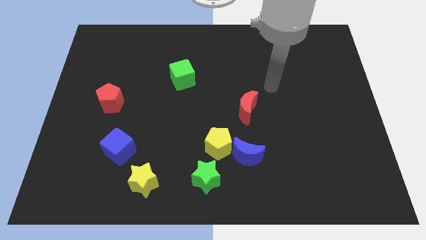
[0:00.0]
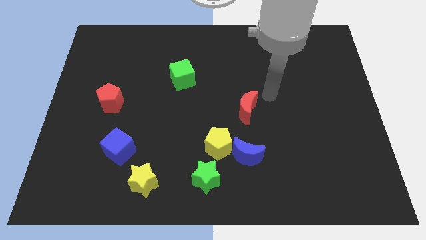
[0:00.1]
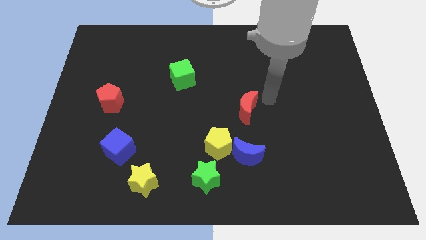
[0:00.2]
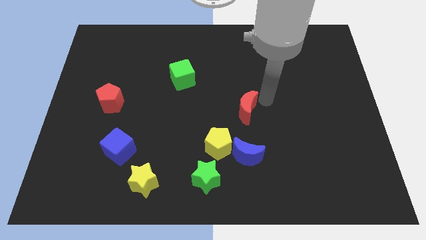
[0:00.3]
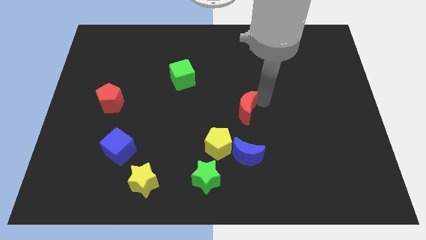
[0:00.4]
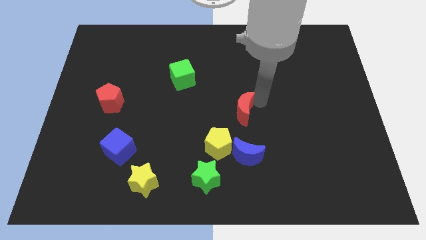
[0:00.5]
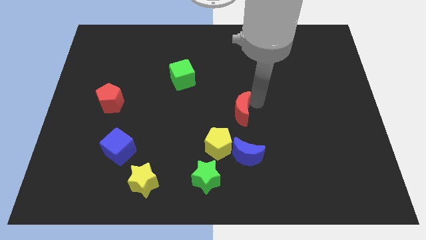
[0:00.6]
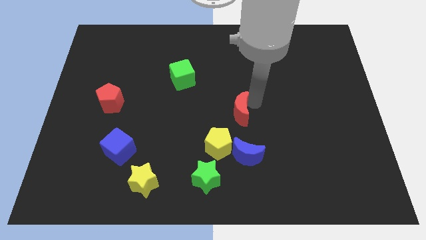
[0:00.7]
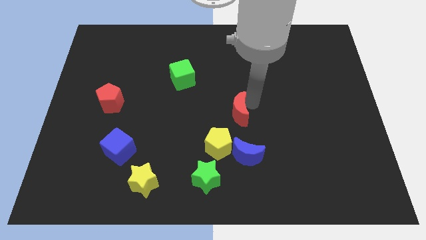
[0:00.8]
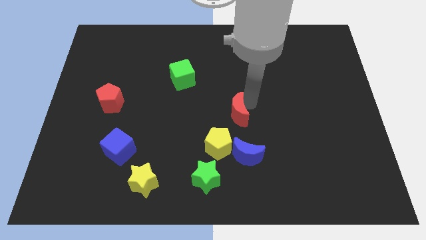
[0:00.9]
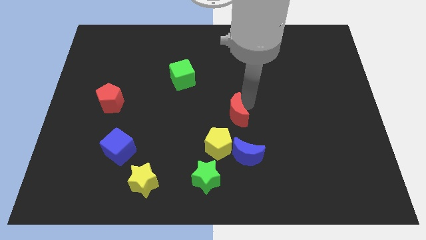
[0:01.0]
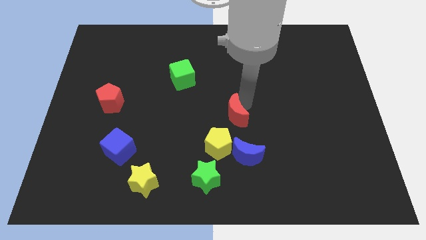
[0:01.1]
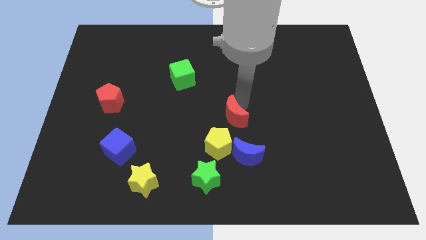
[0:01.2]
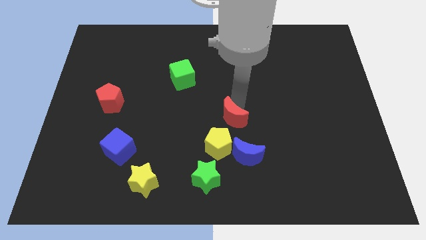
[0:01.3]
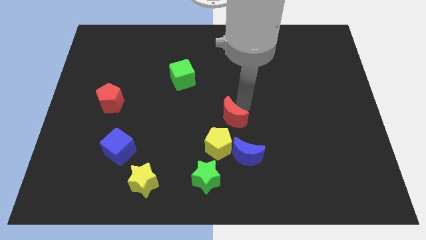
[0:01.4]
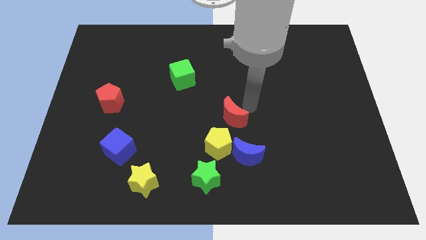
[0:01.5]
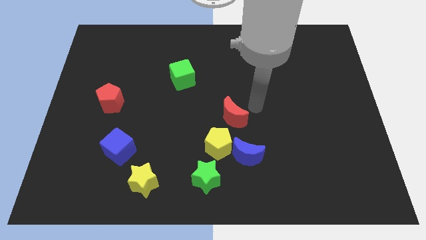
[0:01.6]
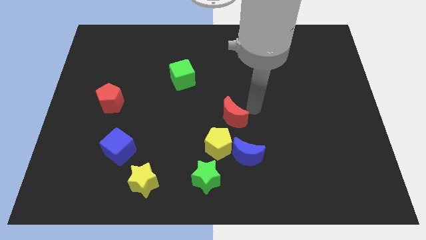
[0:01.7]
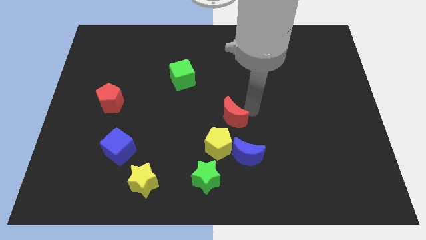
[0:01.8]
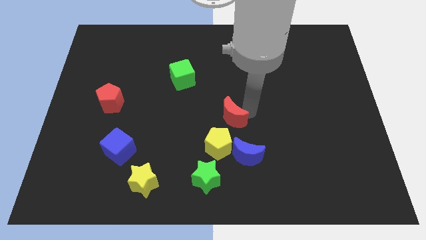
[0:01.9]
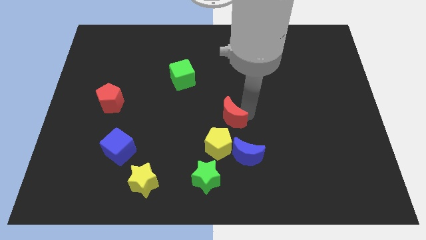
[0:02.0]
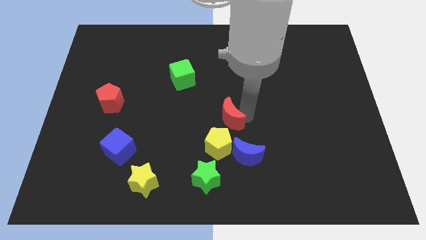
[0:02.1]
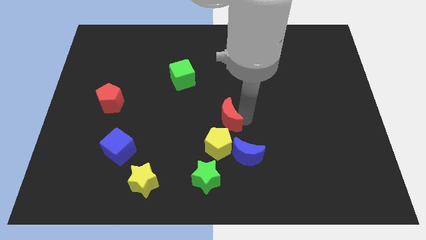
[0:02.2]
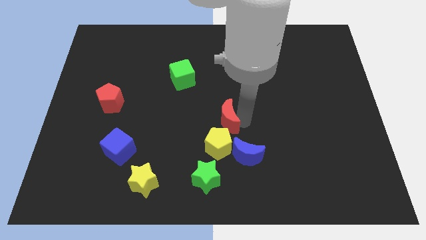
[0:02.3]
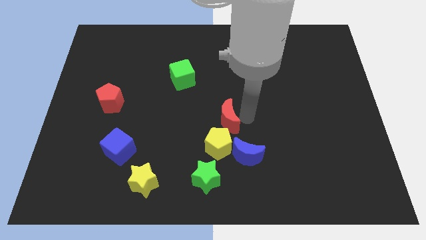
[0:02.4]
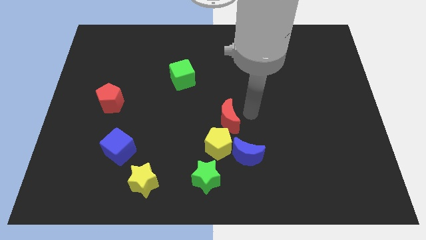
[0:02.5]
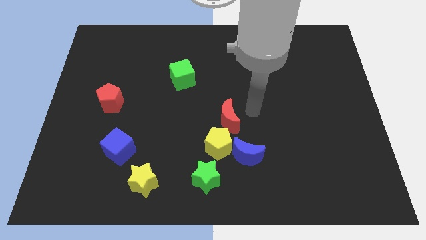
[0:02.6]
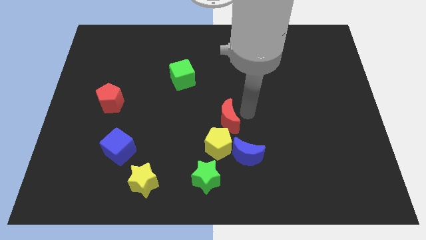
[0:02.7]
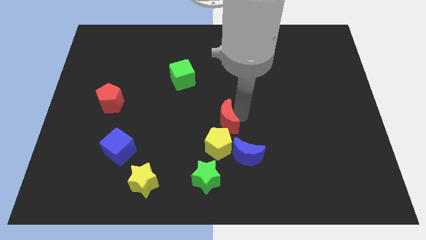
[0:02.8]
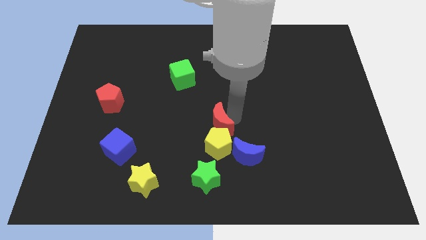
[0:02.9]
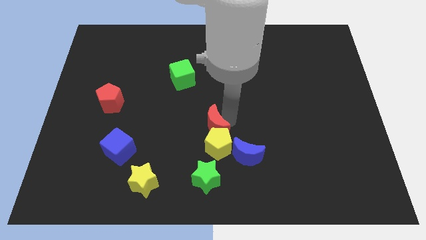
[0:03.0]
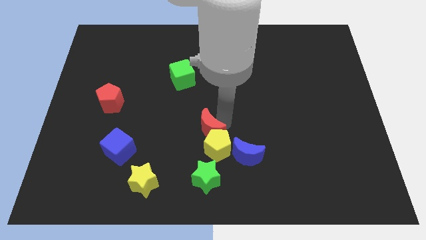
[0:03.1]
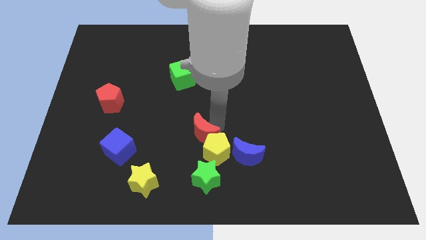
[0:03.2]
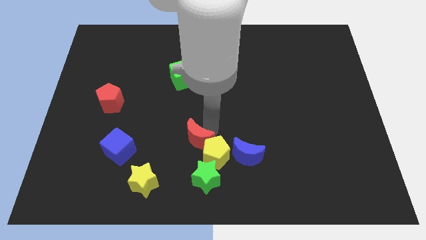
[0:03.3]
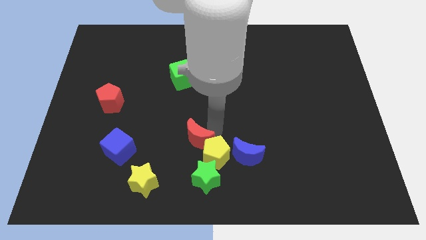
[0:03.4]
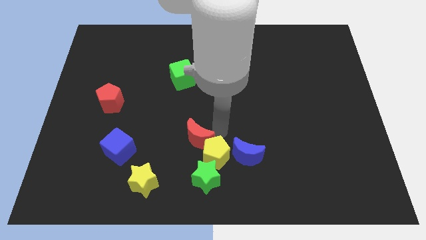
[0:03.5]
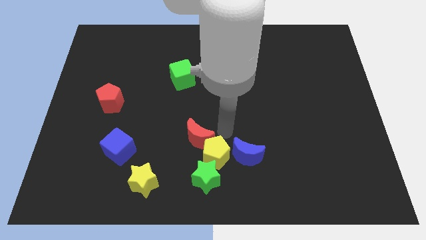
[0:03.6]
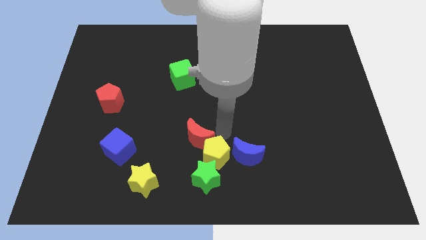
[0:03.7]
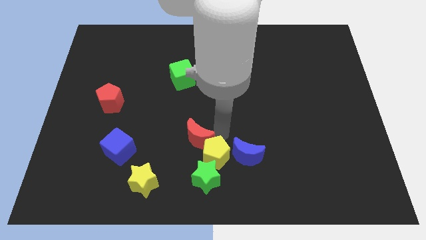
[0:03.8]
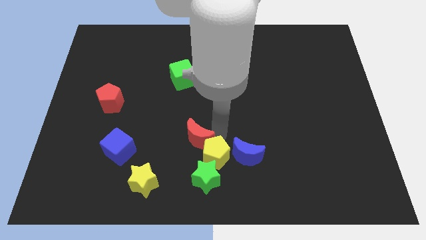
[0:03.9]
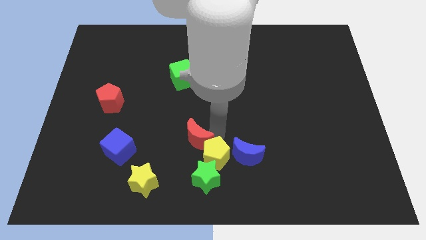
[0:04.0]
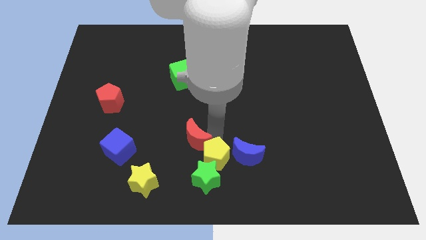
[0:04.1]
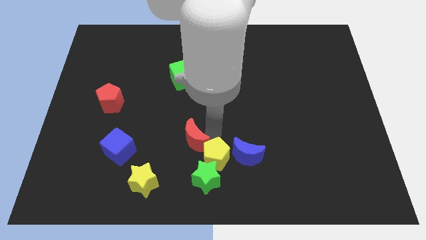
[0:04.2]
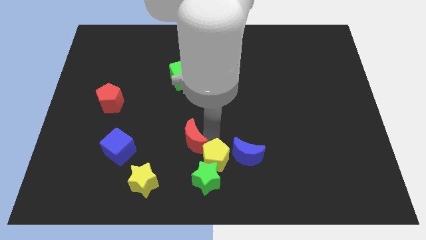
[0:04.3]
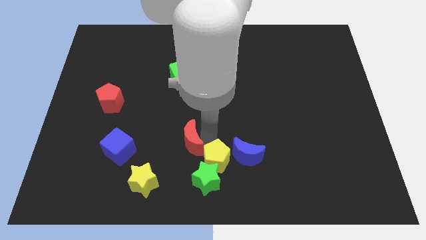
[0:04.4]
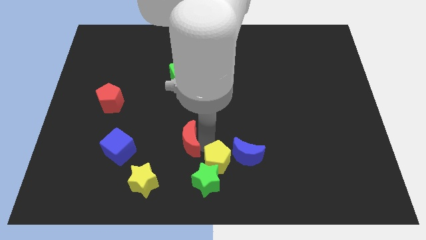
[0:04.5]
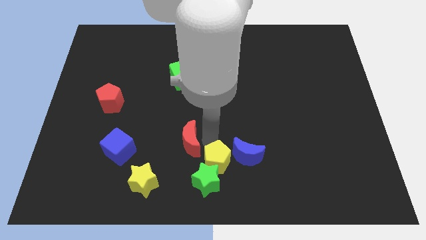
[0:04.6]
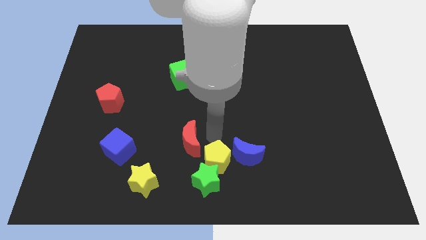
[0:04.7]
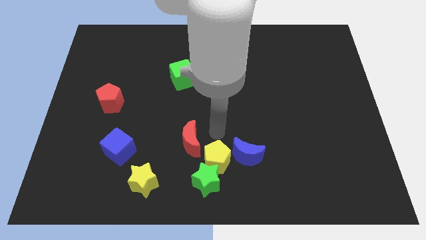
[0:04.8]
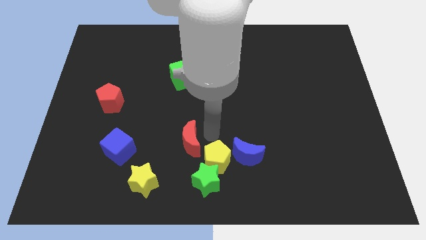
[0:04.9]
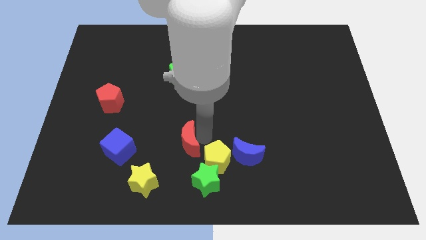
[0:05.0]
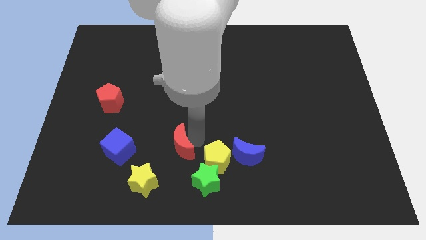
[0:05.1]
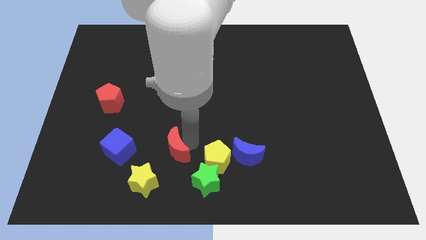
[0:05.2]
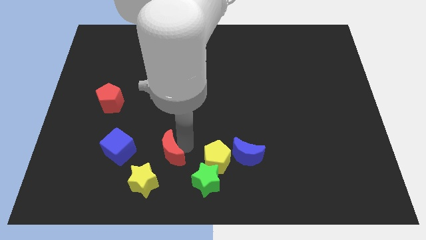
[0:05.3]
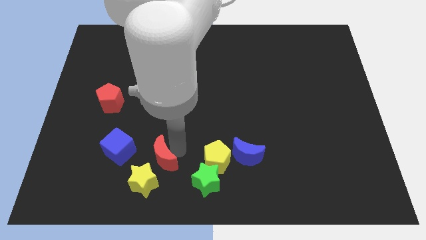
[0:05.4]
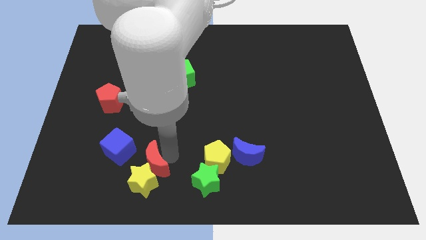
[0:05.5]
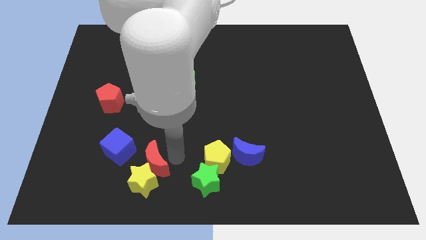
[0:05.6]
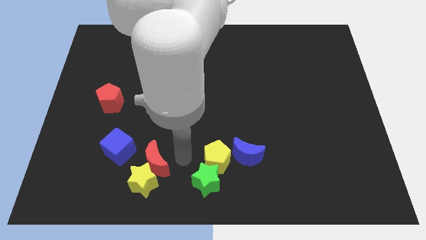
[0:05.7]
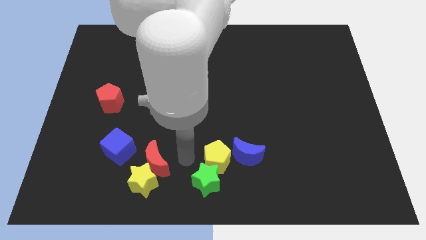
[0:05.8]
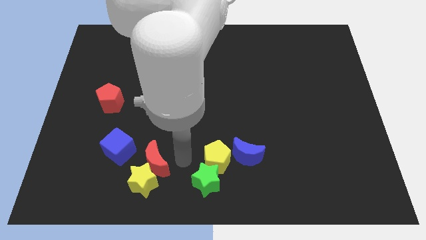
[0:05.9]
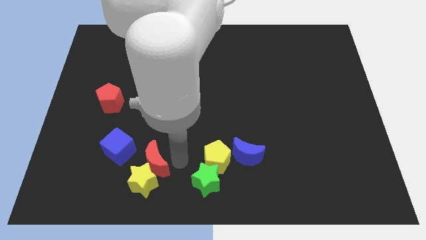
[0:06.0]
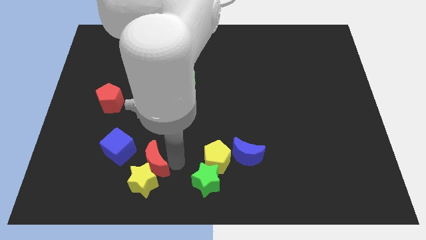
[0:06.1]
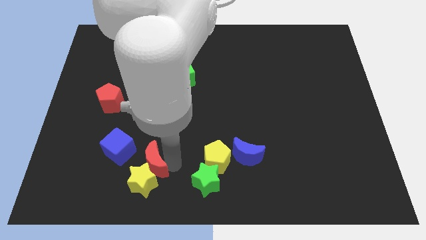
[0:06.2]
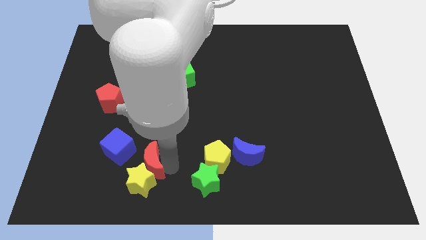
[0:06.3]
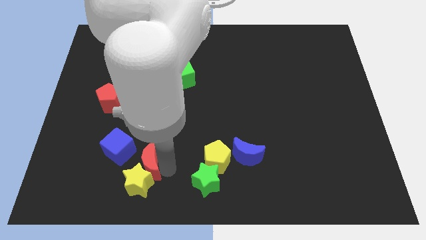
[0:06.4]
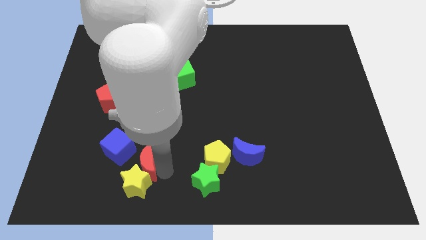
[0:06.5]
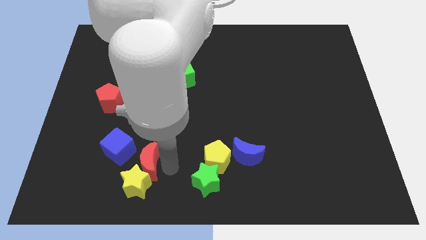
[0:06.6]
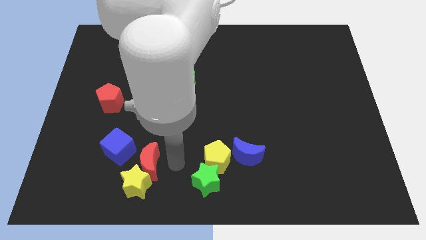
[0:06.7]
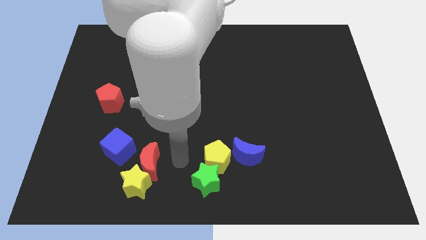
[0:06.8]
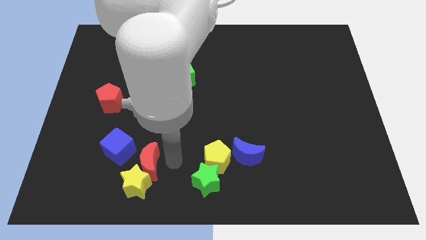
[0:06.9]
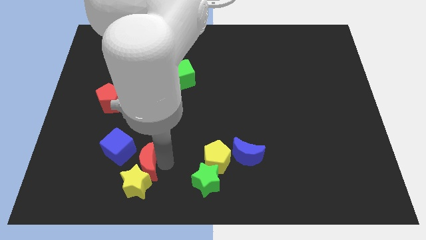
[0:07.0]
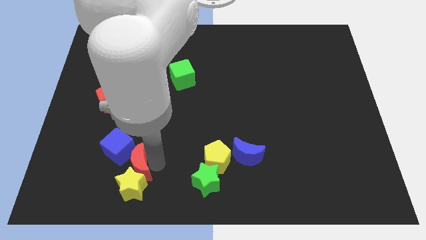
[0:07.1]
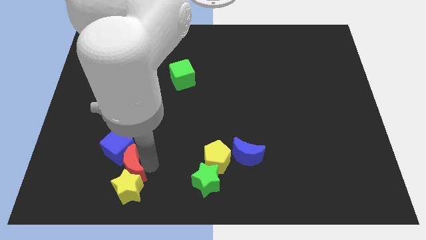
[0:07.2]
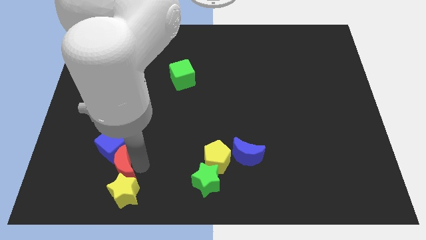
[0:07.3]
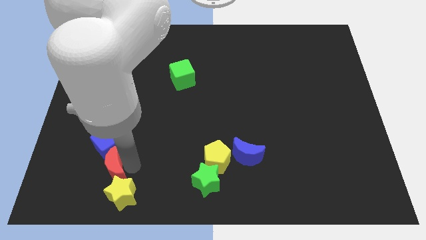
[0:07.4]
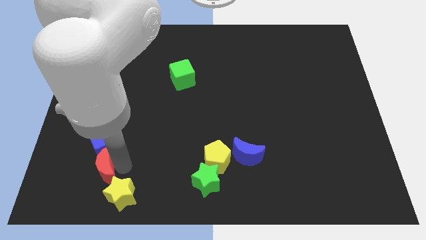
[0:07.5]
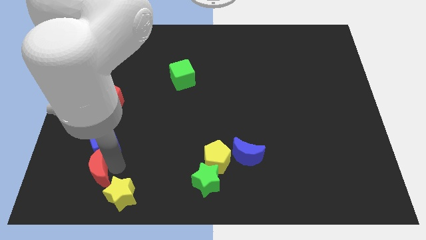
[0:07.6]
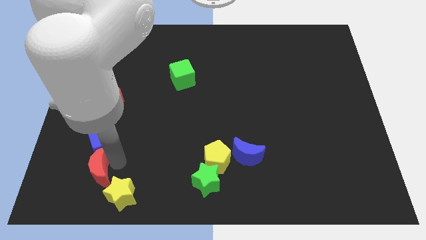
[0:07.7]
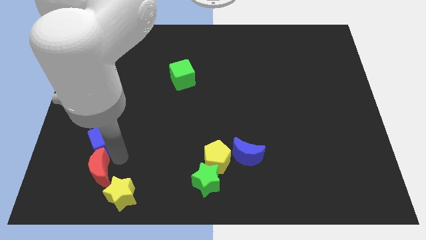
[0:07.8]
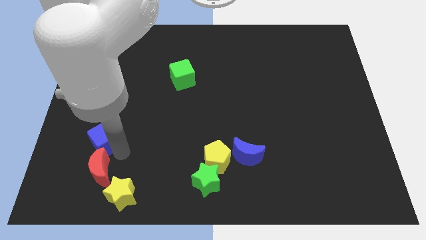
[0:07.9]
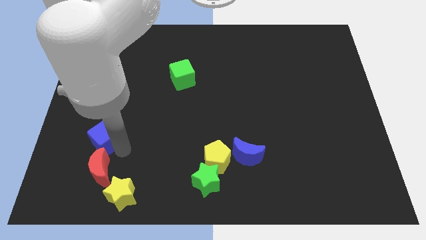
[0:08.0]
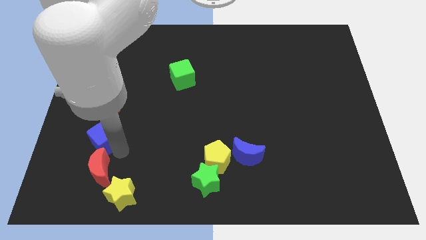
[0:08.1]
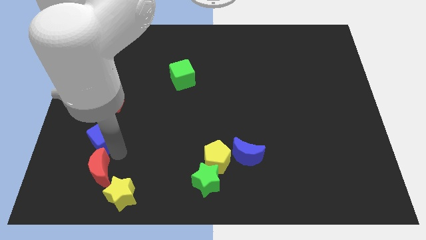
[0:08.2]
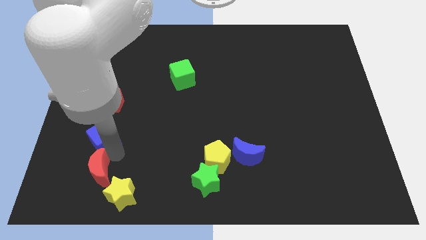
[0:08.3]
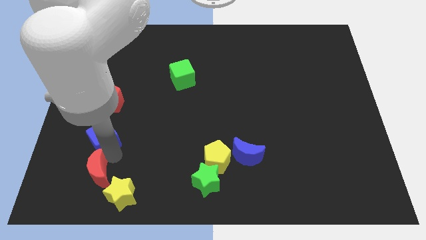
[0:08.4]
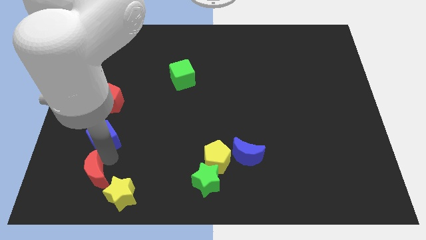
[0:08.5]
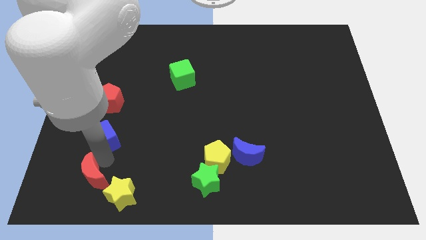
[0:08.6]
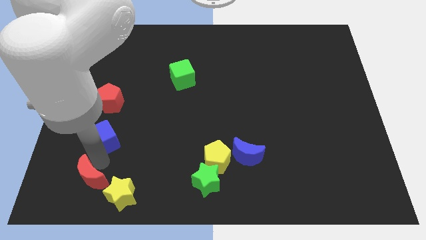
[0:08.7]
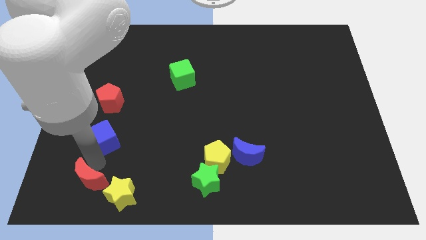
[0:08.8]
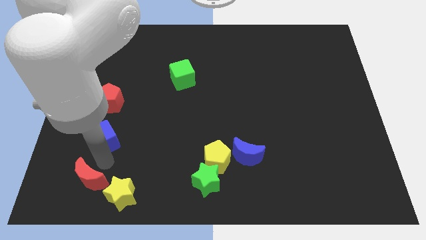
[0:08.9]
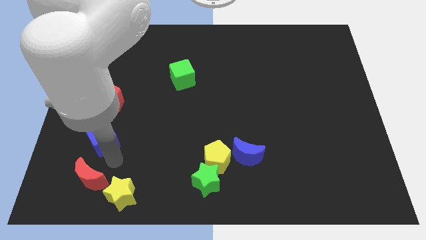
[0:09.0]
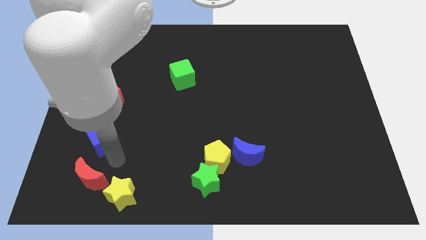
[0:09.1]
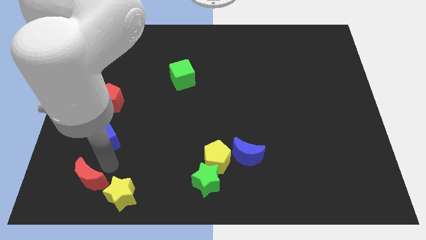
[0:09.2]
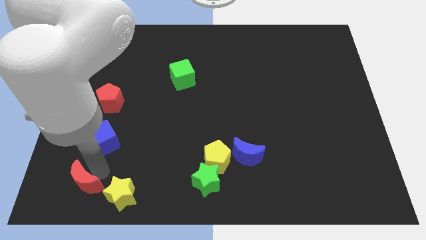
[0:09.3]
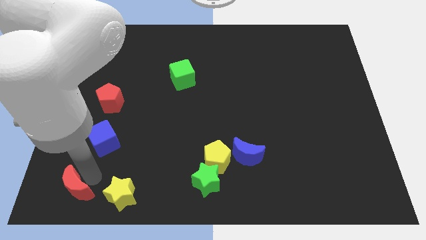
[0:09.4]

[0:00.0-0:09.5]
move the red moon to the lower left corner
